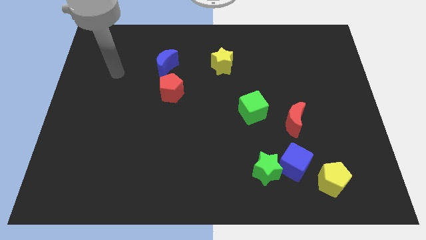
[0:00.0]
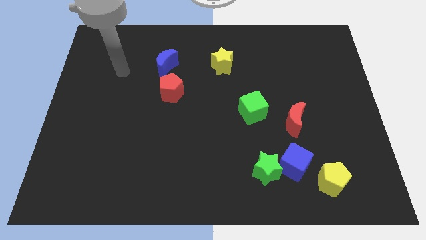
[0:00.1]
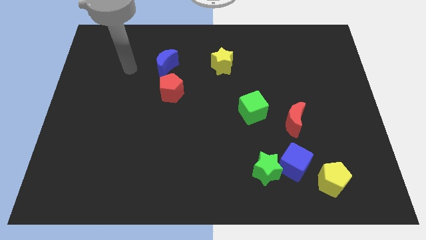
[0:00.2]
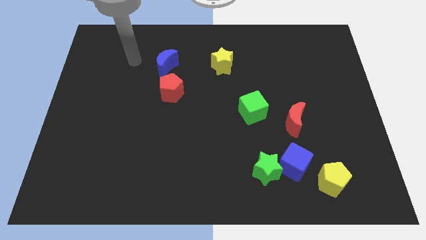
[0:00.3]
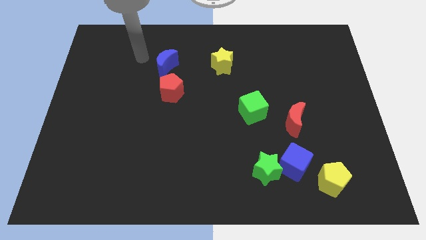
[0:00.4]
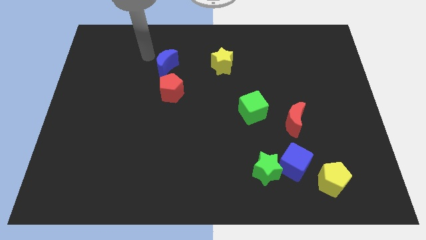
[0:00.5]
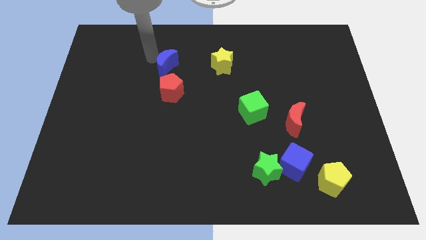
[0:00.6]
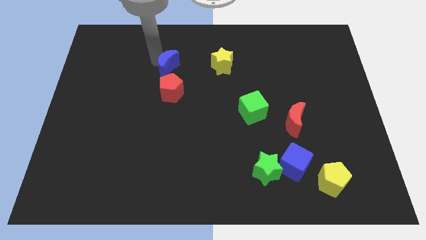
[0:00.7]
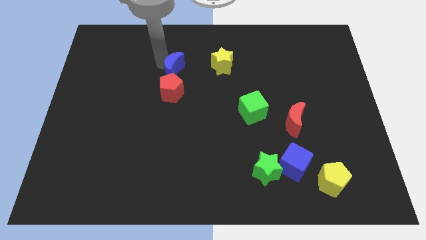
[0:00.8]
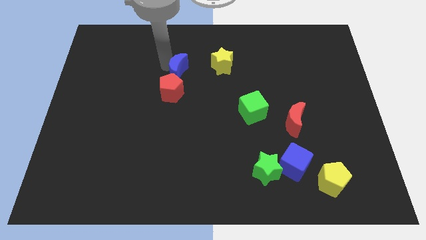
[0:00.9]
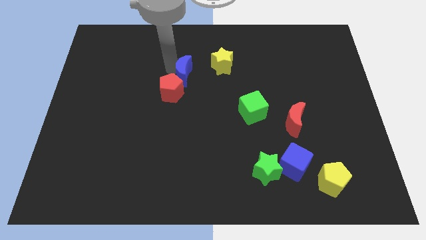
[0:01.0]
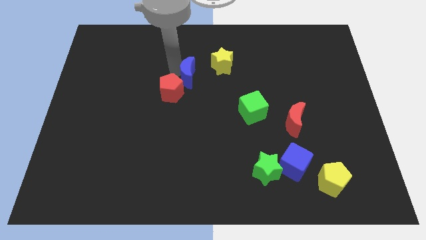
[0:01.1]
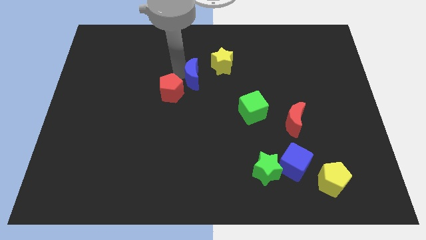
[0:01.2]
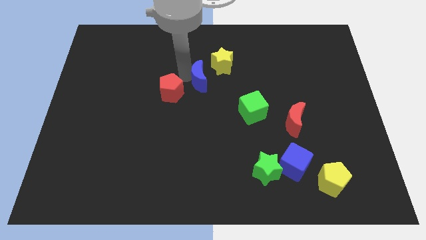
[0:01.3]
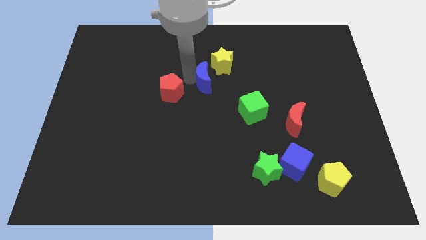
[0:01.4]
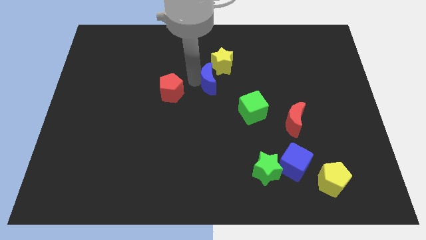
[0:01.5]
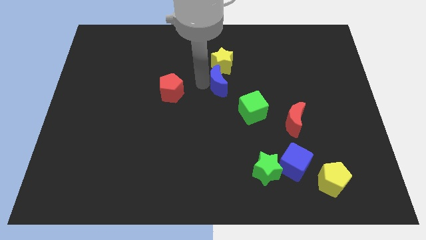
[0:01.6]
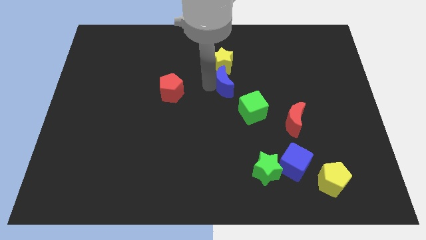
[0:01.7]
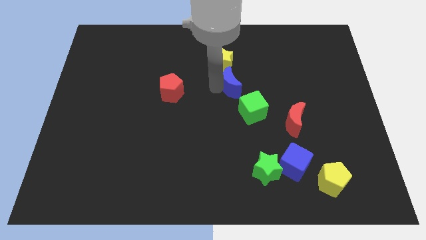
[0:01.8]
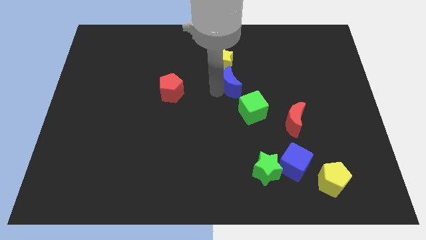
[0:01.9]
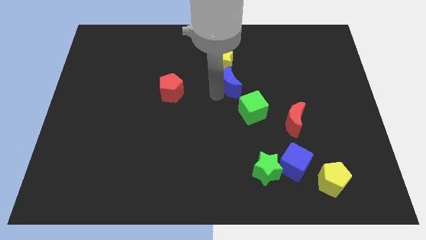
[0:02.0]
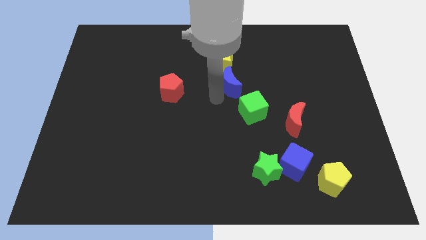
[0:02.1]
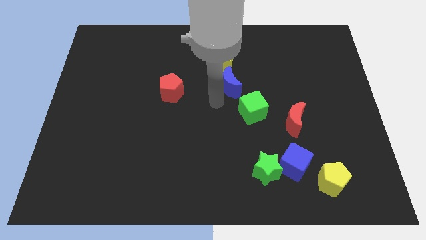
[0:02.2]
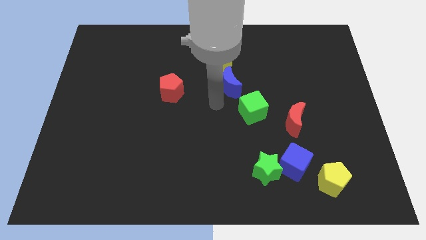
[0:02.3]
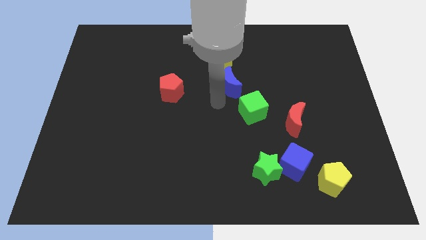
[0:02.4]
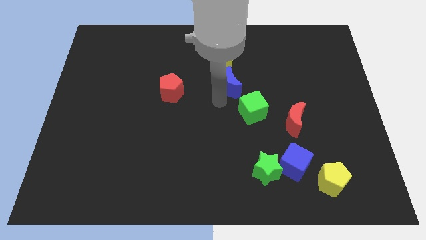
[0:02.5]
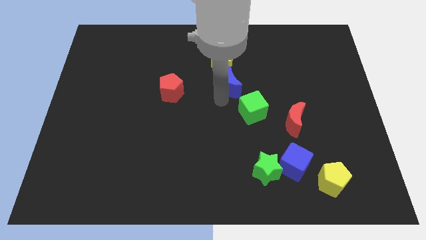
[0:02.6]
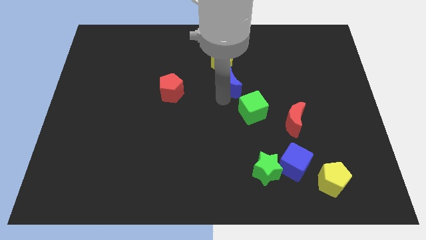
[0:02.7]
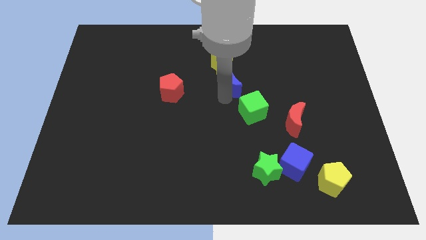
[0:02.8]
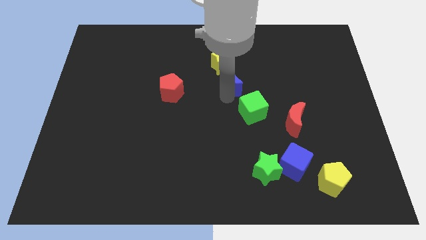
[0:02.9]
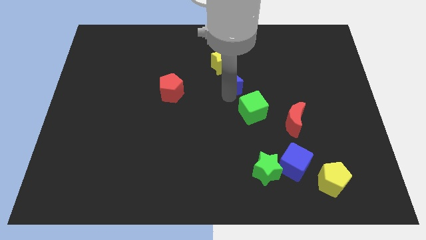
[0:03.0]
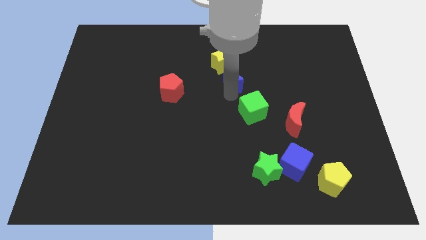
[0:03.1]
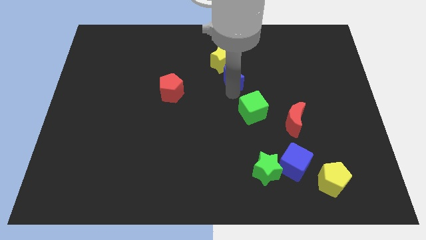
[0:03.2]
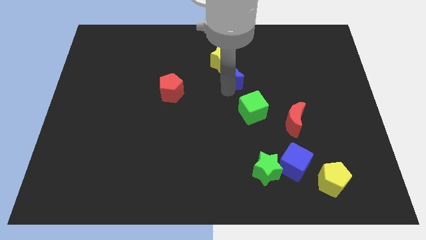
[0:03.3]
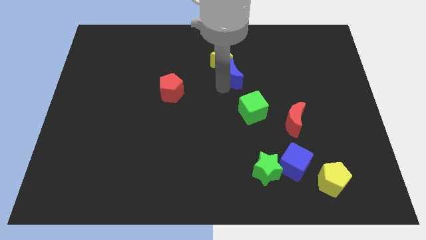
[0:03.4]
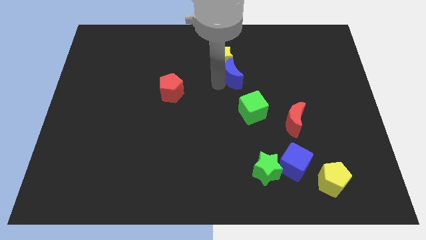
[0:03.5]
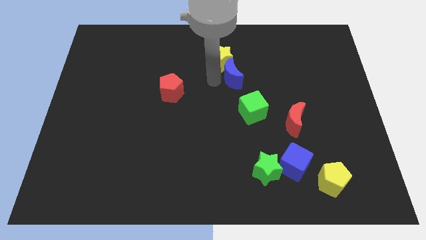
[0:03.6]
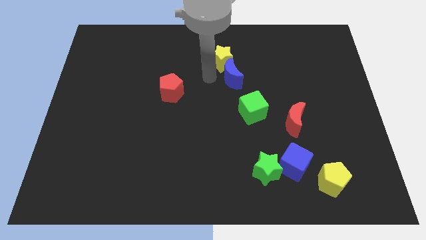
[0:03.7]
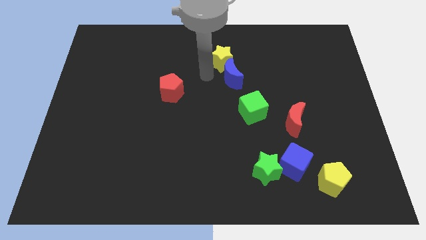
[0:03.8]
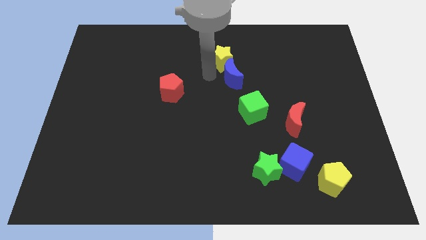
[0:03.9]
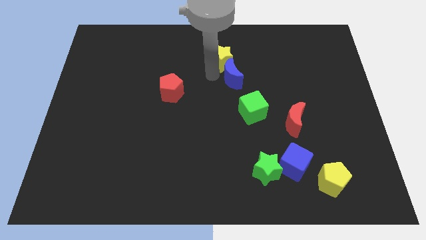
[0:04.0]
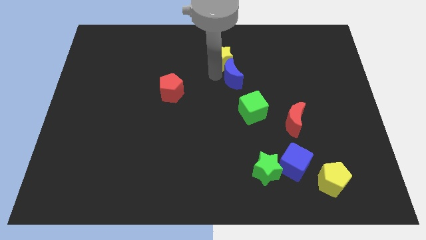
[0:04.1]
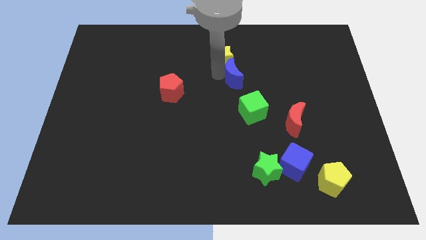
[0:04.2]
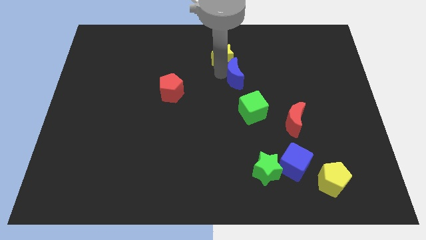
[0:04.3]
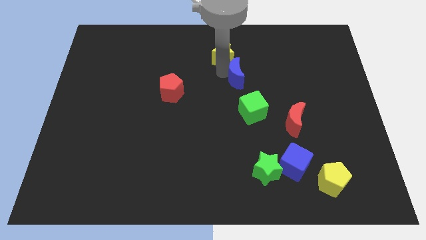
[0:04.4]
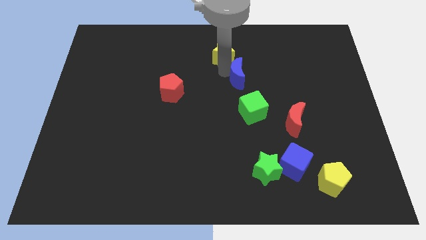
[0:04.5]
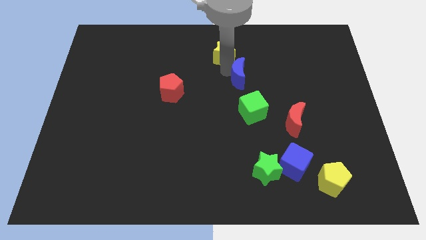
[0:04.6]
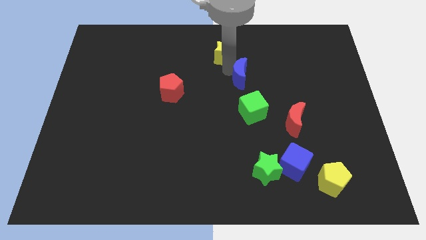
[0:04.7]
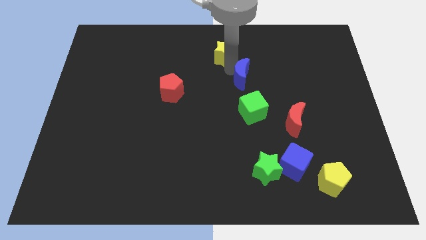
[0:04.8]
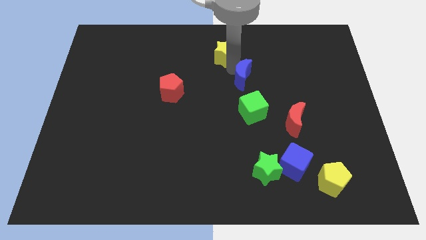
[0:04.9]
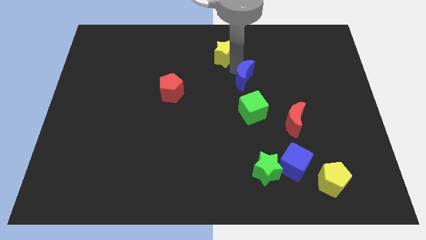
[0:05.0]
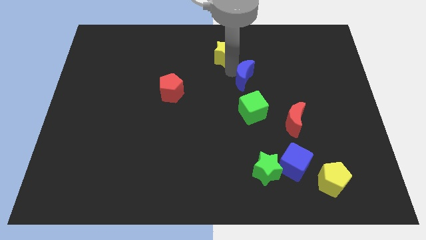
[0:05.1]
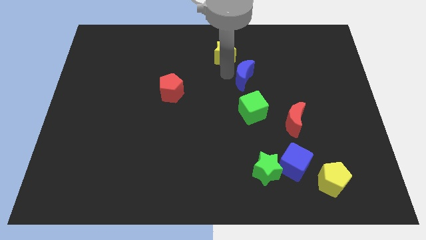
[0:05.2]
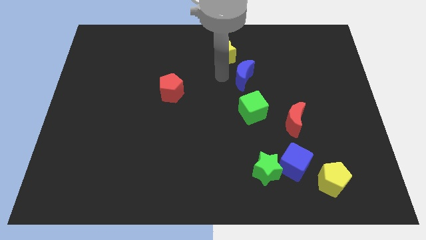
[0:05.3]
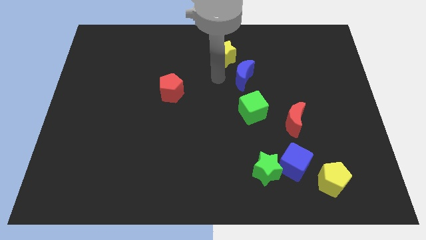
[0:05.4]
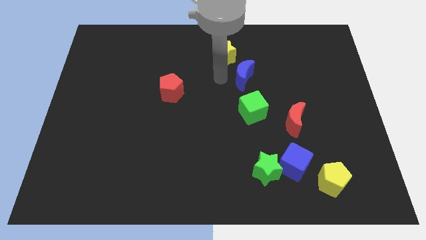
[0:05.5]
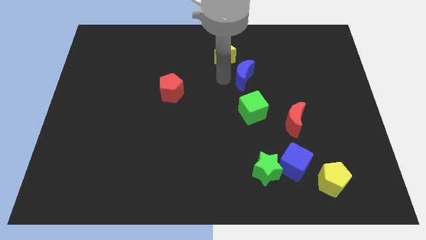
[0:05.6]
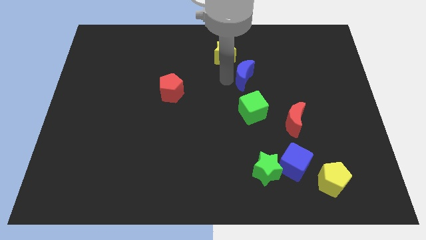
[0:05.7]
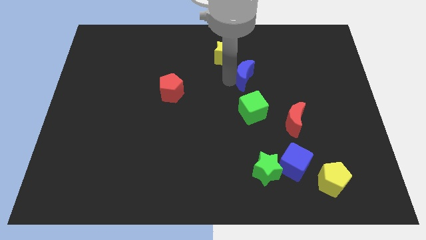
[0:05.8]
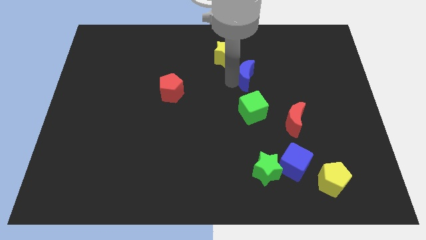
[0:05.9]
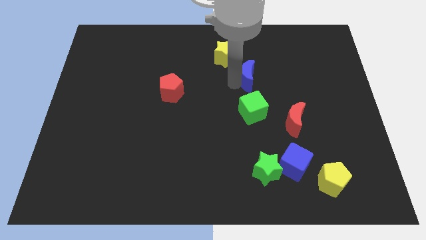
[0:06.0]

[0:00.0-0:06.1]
slide the blue moon to the right

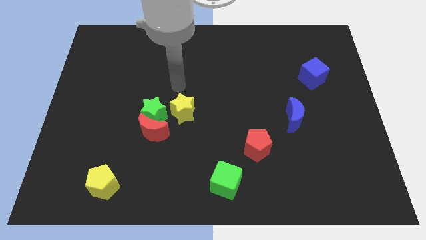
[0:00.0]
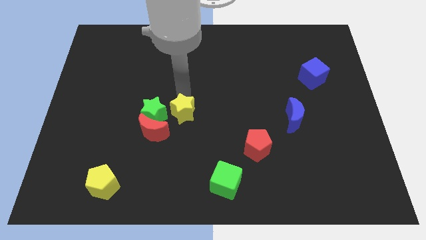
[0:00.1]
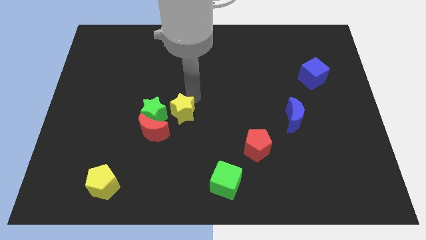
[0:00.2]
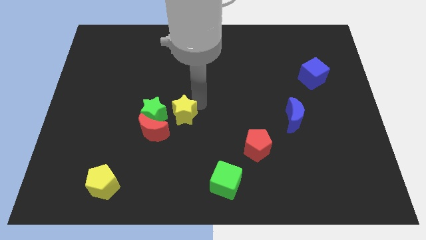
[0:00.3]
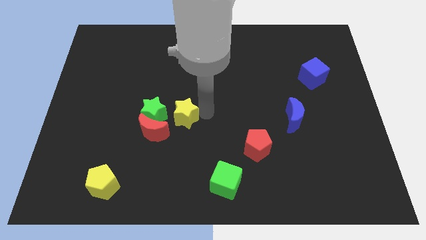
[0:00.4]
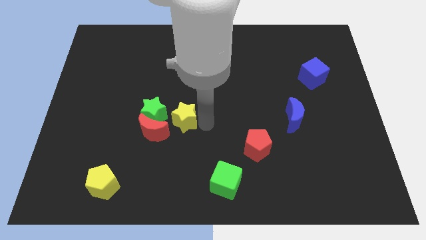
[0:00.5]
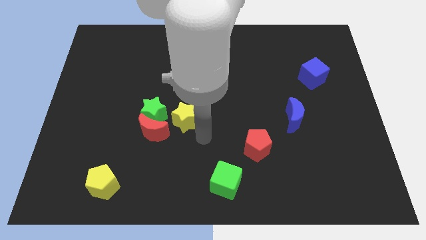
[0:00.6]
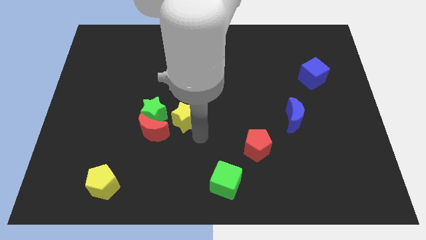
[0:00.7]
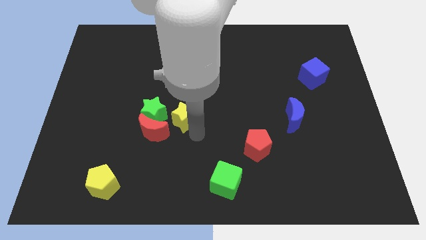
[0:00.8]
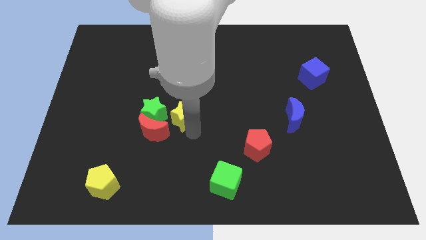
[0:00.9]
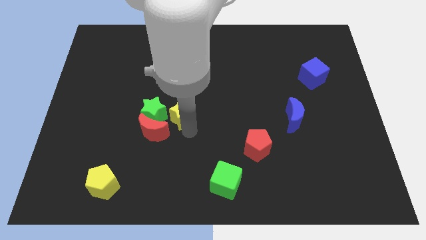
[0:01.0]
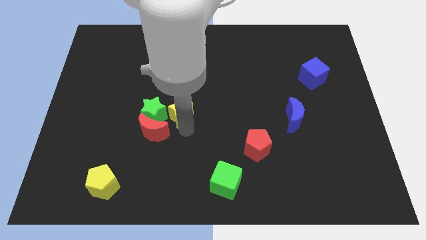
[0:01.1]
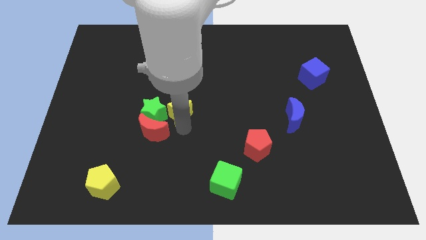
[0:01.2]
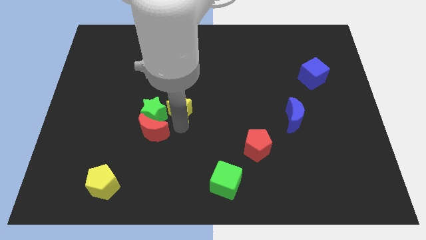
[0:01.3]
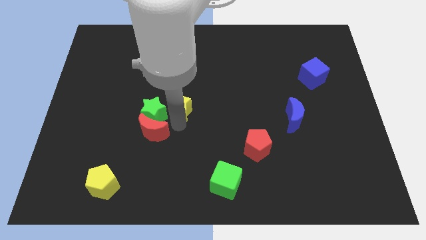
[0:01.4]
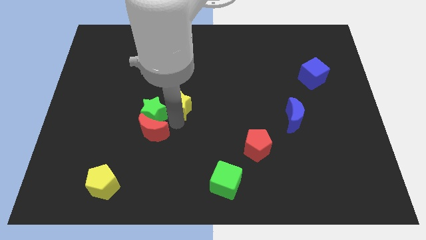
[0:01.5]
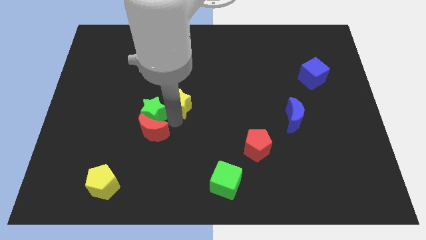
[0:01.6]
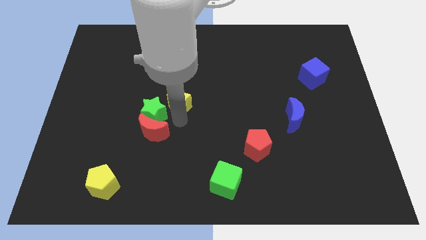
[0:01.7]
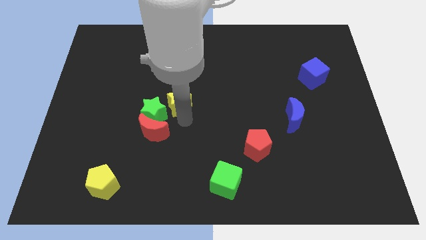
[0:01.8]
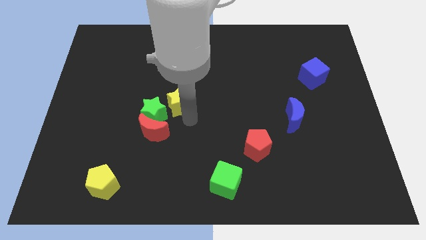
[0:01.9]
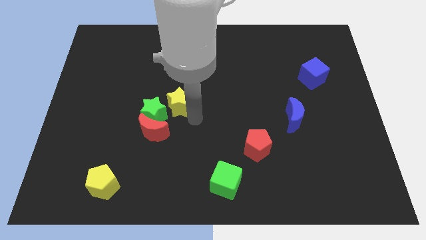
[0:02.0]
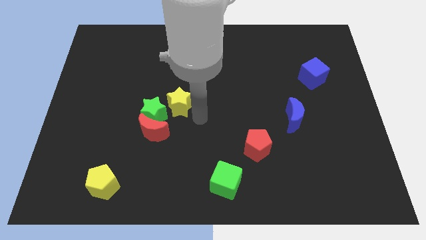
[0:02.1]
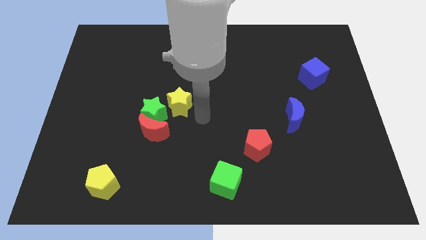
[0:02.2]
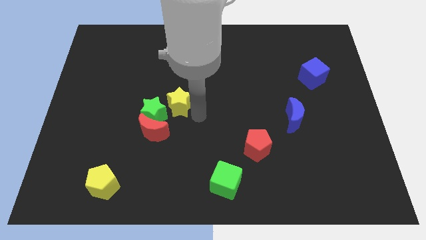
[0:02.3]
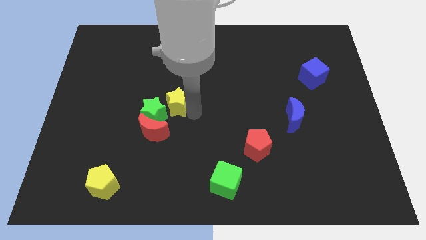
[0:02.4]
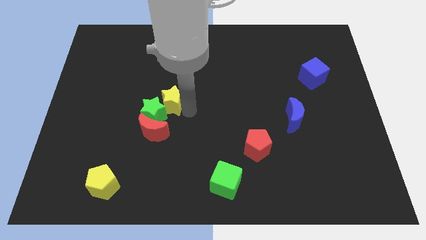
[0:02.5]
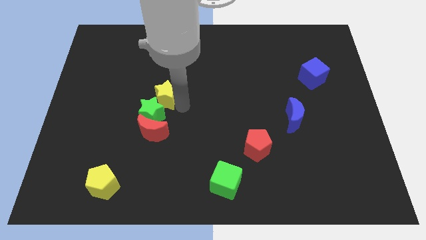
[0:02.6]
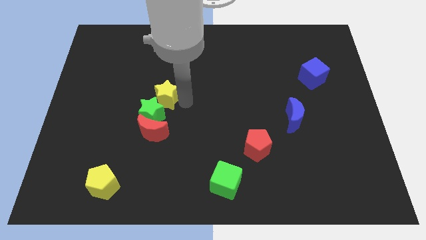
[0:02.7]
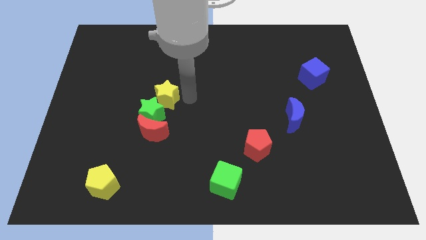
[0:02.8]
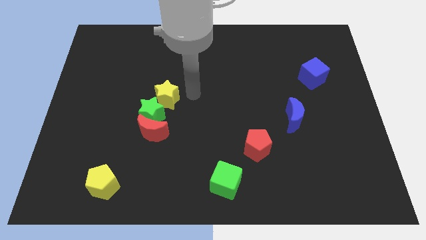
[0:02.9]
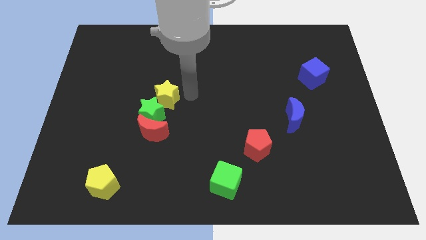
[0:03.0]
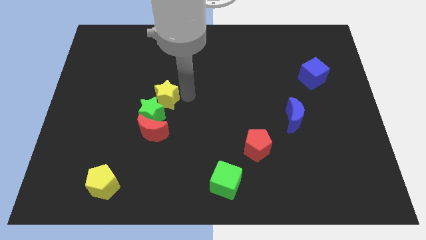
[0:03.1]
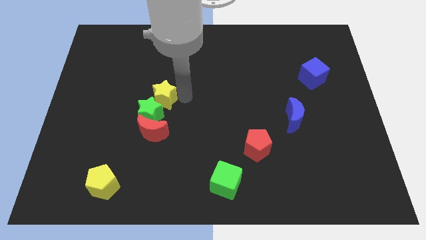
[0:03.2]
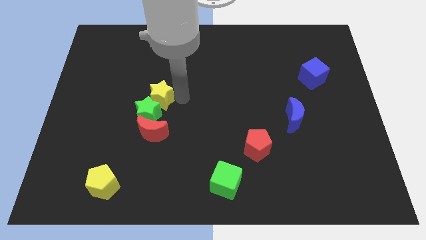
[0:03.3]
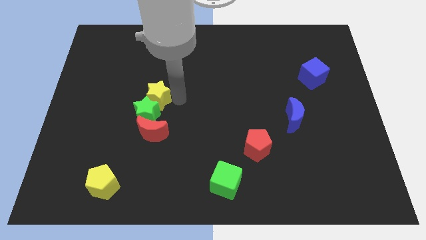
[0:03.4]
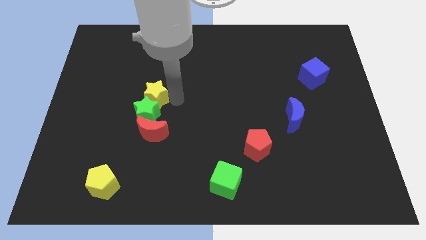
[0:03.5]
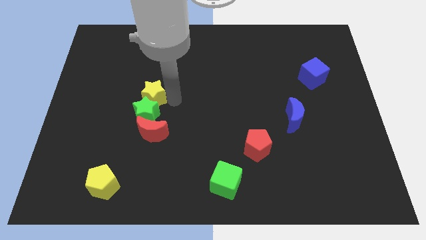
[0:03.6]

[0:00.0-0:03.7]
slightly move the yellow star to the left
